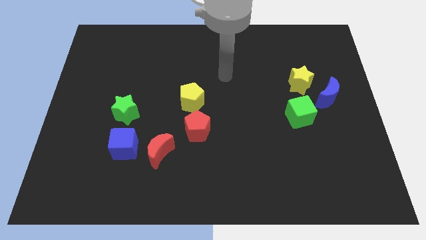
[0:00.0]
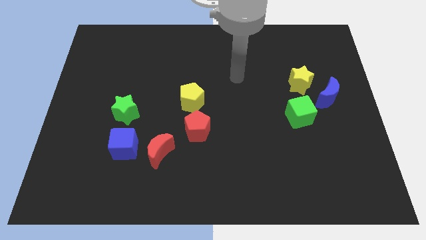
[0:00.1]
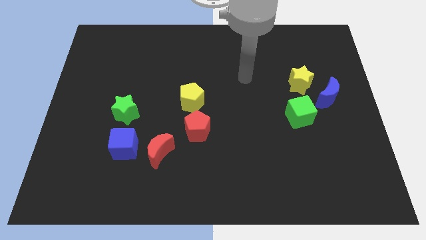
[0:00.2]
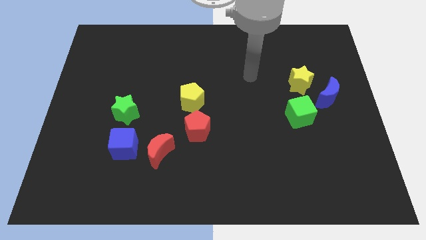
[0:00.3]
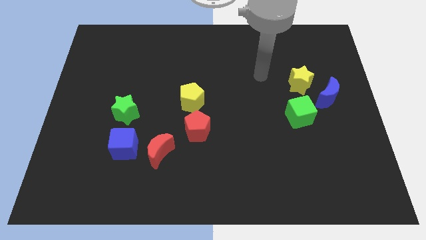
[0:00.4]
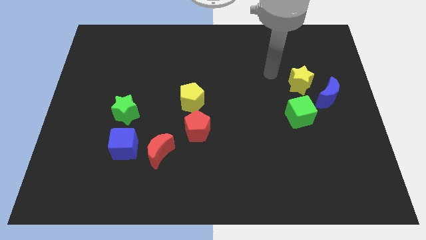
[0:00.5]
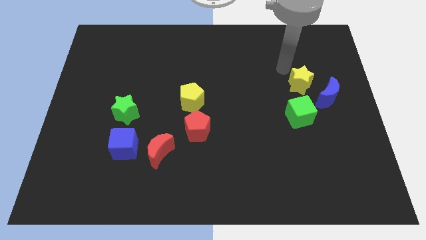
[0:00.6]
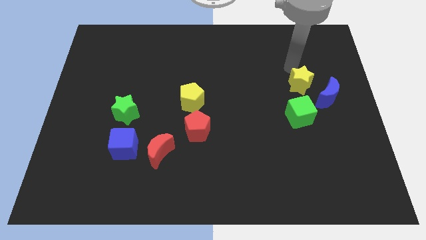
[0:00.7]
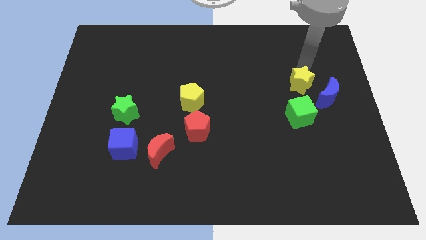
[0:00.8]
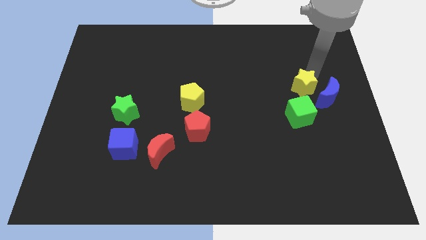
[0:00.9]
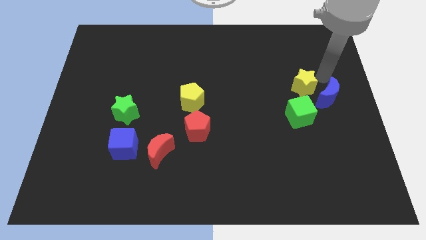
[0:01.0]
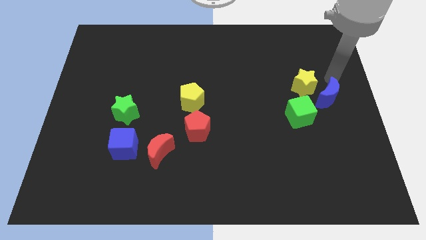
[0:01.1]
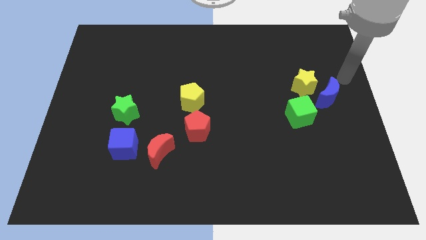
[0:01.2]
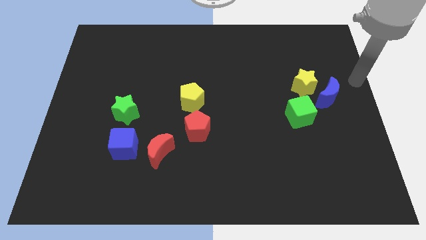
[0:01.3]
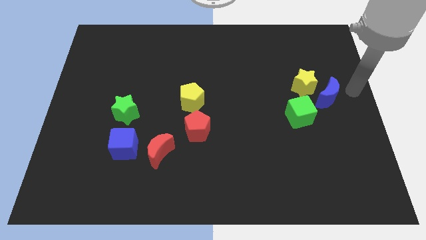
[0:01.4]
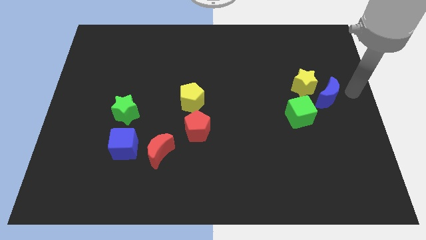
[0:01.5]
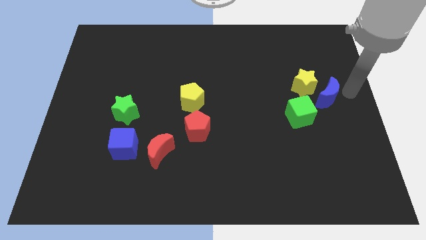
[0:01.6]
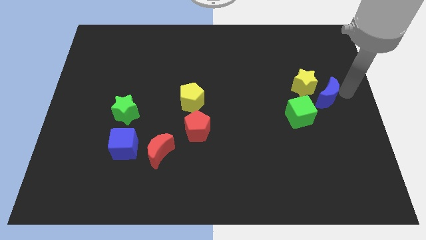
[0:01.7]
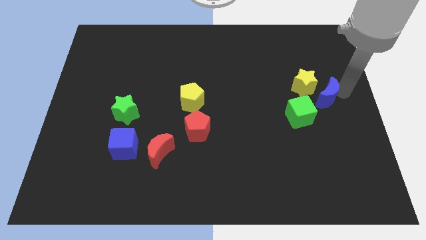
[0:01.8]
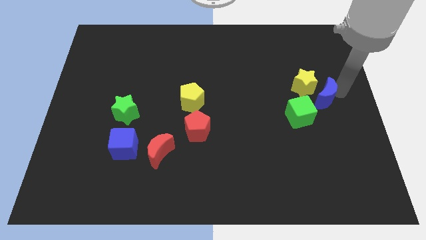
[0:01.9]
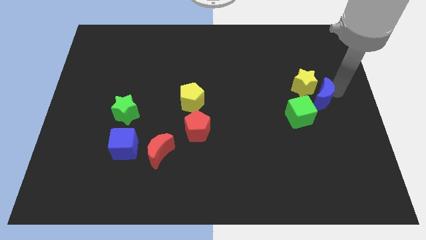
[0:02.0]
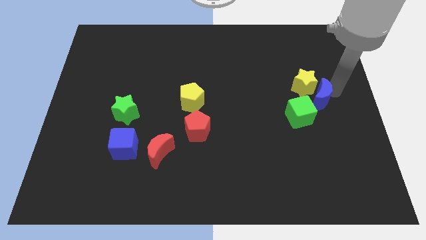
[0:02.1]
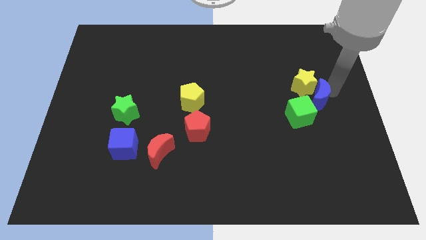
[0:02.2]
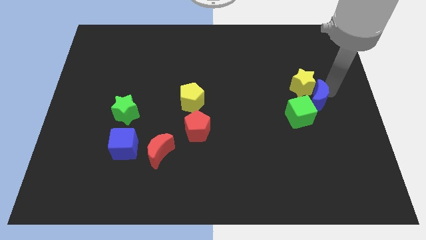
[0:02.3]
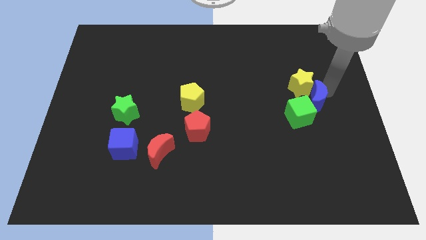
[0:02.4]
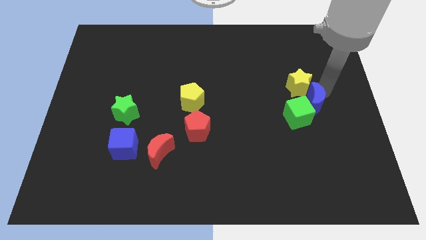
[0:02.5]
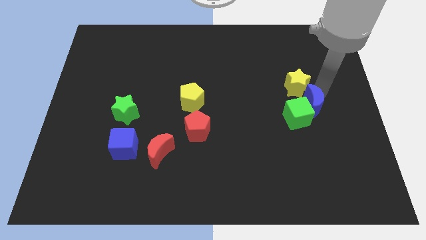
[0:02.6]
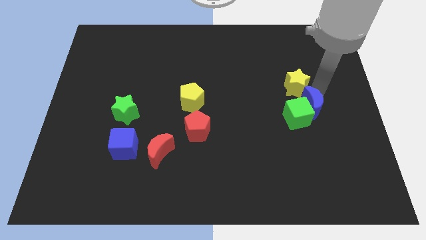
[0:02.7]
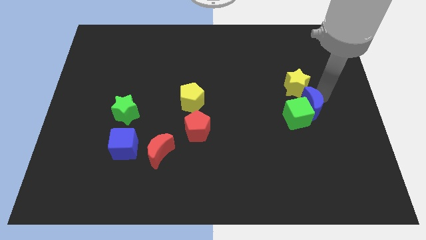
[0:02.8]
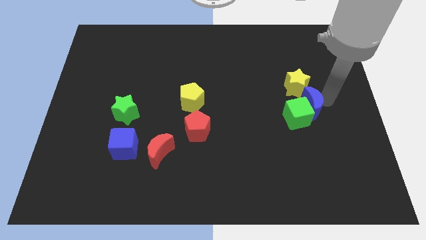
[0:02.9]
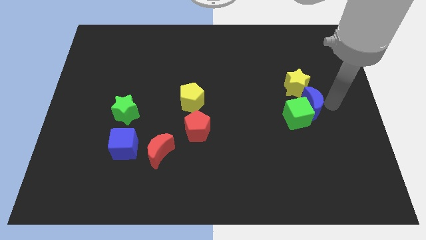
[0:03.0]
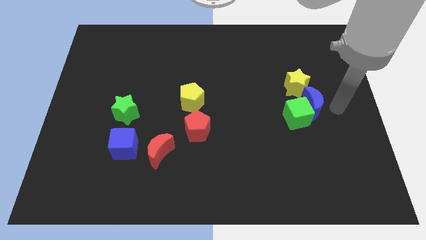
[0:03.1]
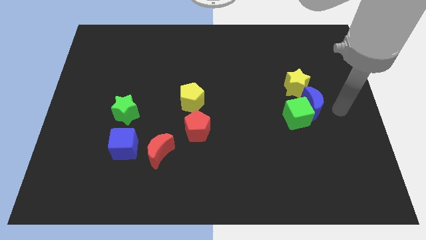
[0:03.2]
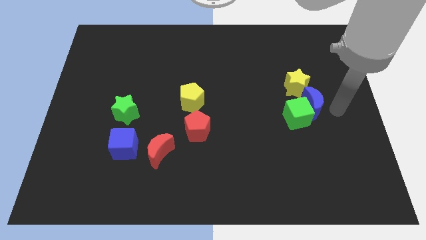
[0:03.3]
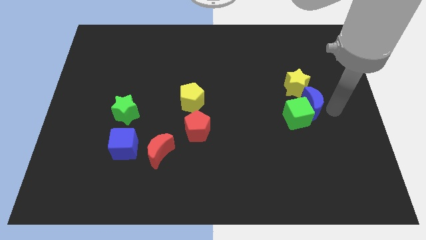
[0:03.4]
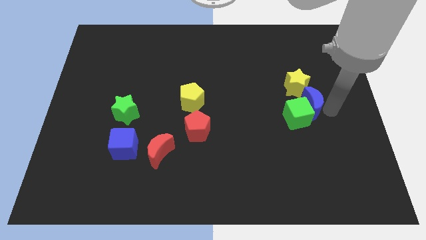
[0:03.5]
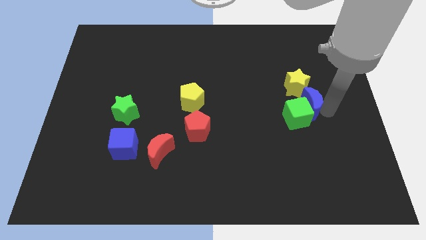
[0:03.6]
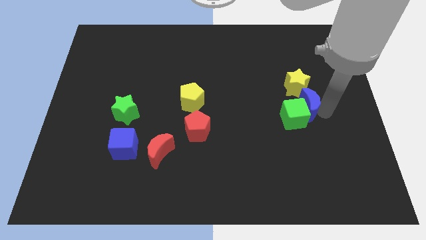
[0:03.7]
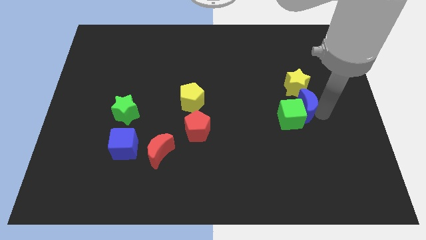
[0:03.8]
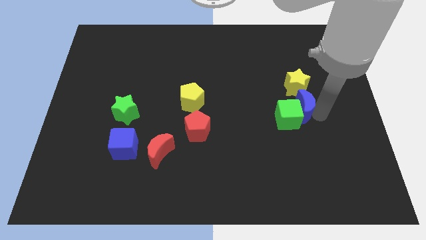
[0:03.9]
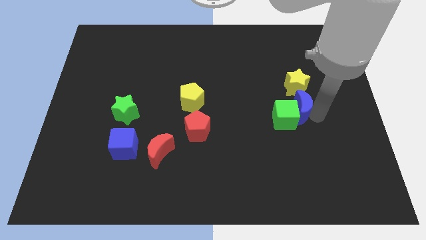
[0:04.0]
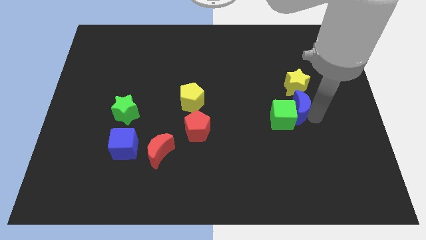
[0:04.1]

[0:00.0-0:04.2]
slide the blue moon slightly left

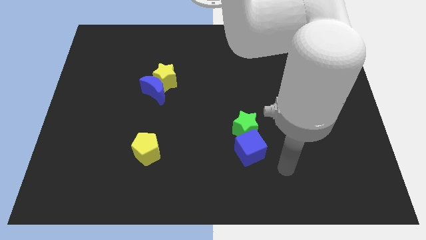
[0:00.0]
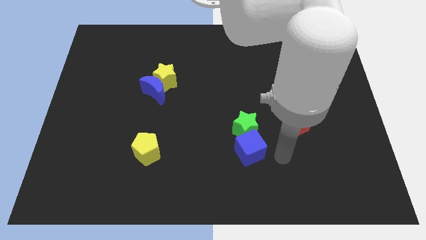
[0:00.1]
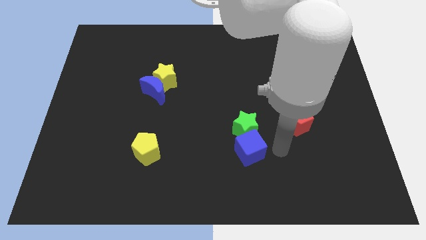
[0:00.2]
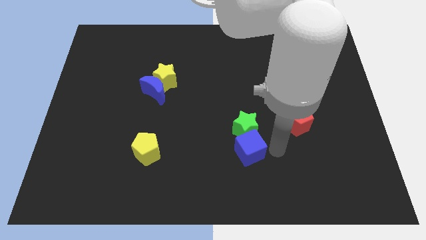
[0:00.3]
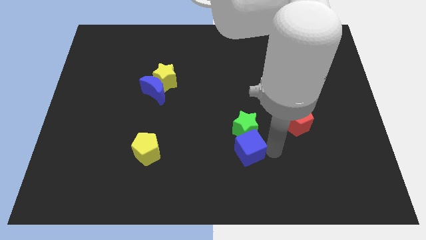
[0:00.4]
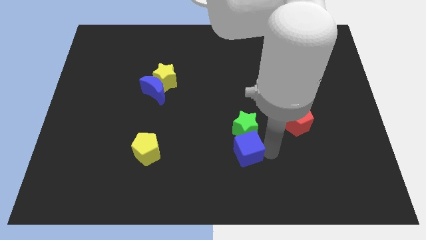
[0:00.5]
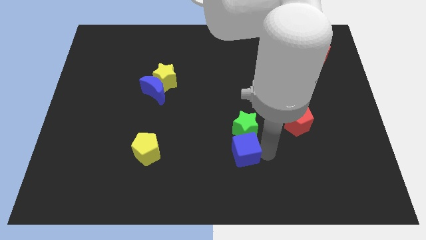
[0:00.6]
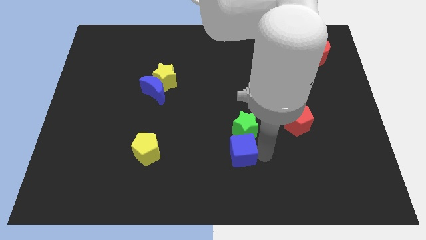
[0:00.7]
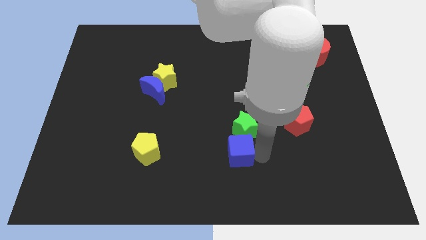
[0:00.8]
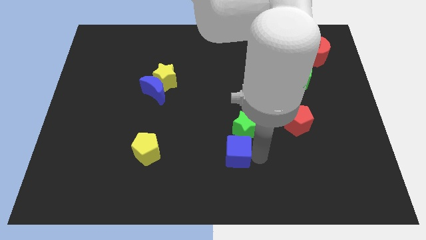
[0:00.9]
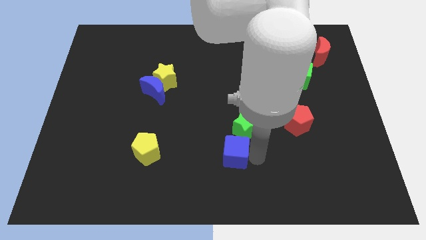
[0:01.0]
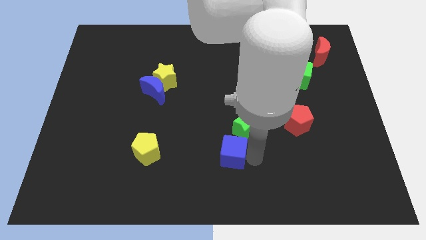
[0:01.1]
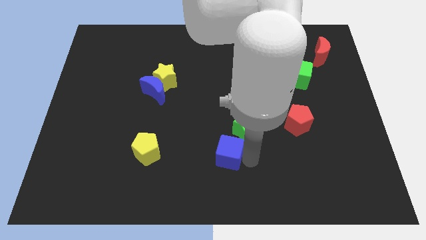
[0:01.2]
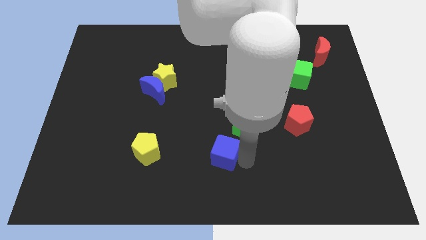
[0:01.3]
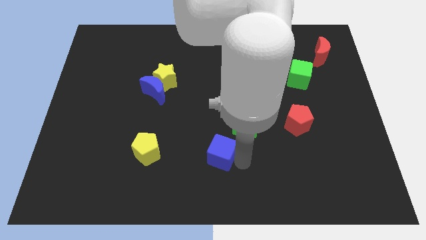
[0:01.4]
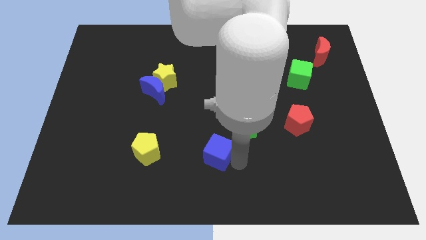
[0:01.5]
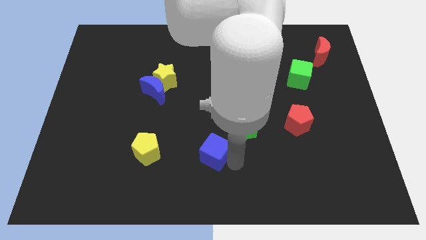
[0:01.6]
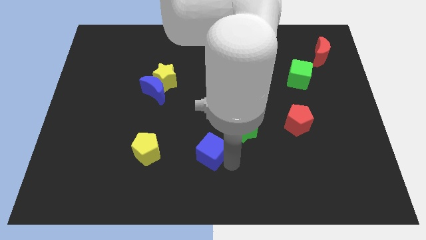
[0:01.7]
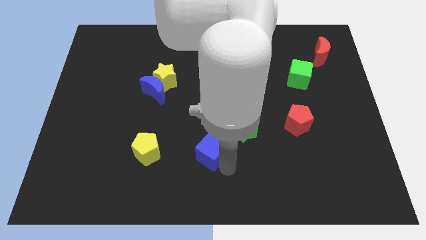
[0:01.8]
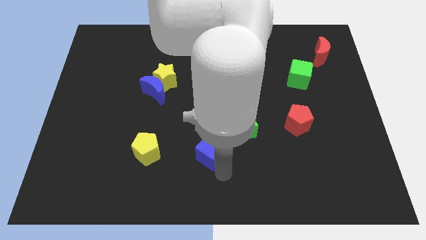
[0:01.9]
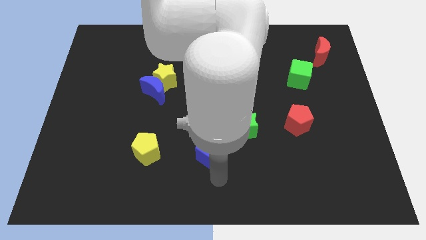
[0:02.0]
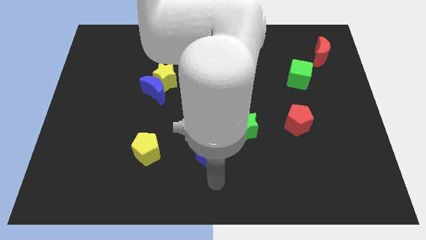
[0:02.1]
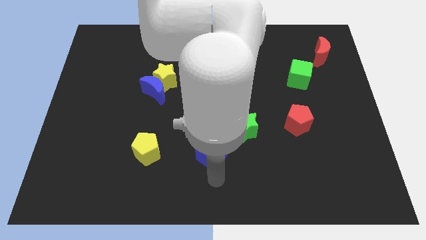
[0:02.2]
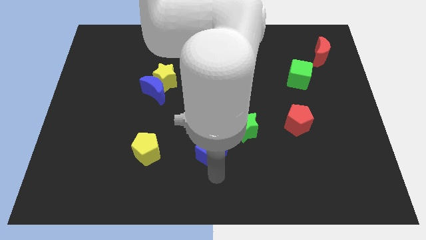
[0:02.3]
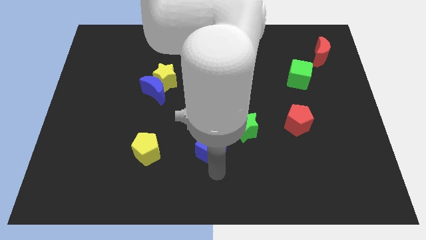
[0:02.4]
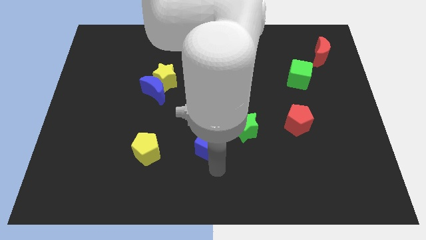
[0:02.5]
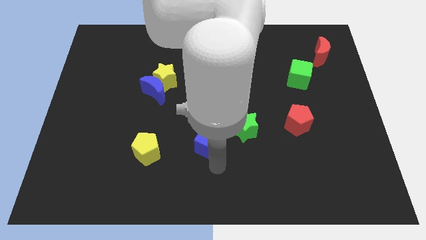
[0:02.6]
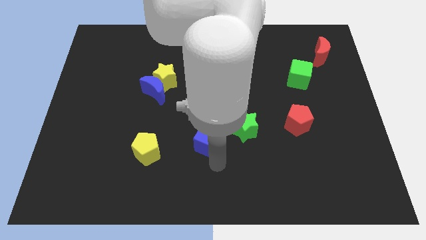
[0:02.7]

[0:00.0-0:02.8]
move the blue cube slightly up and then left

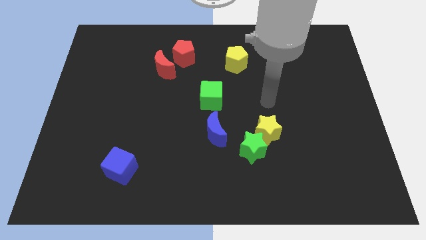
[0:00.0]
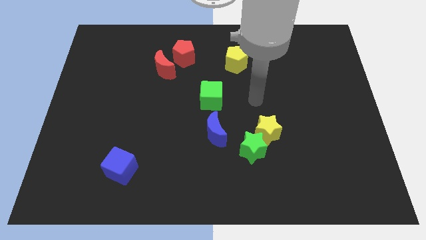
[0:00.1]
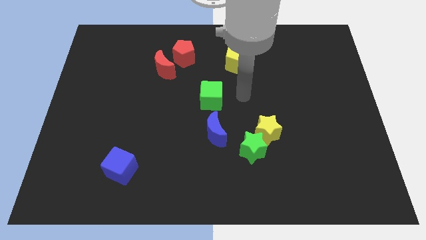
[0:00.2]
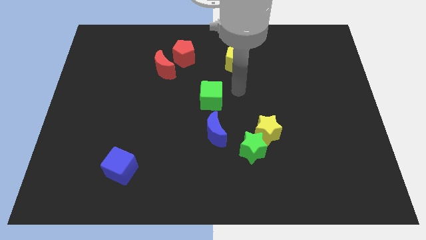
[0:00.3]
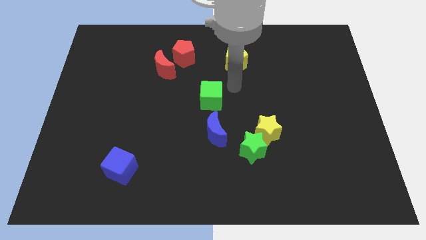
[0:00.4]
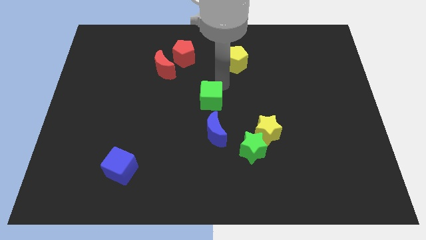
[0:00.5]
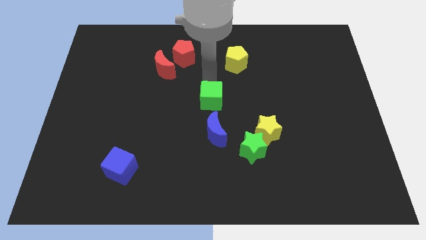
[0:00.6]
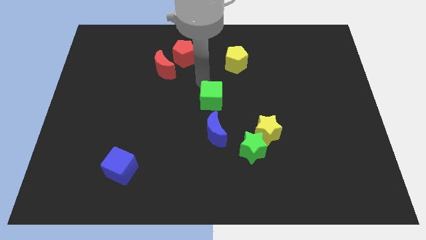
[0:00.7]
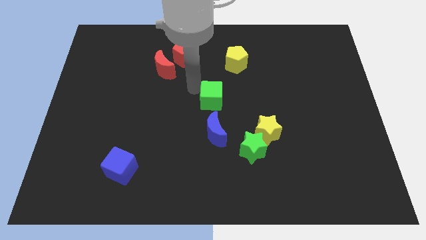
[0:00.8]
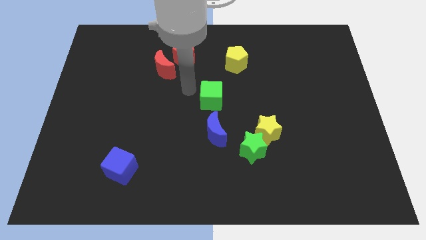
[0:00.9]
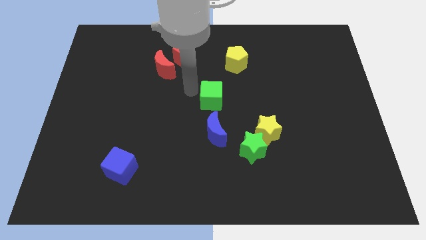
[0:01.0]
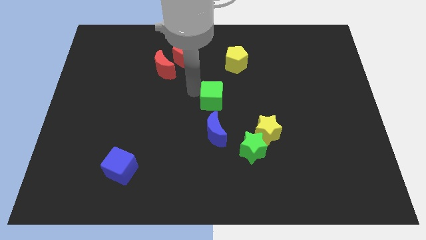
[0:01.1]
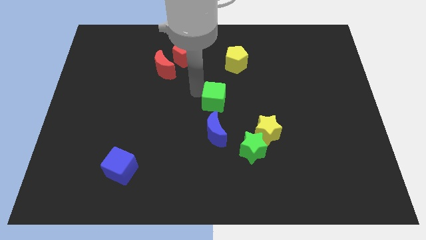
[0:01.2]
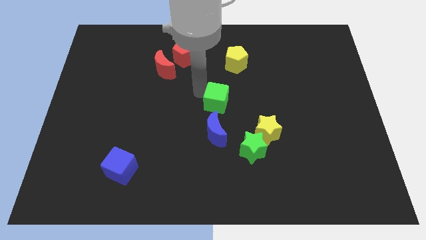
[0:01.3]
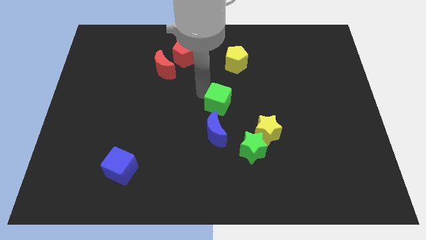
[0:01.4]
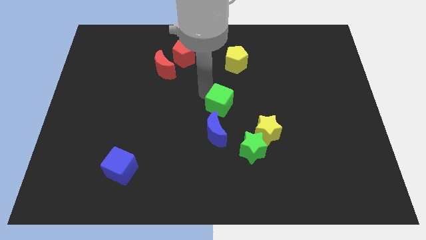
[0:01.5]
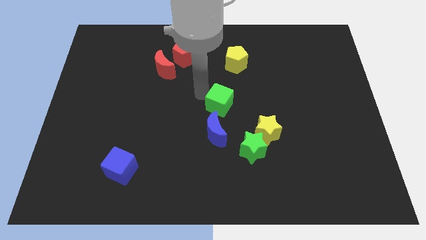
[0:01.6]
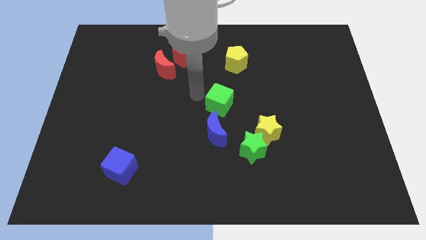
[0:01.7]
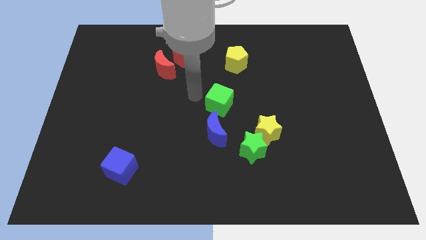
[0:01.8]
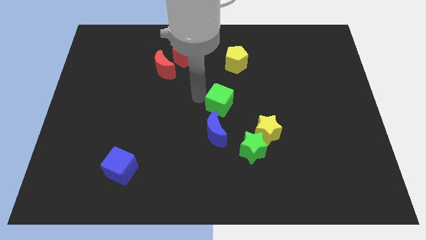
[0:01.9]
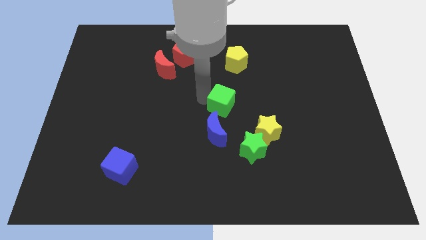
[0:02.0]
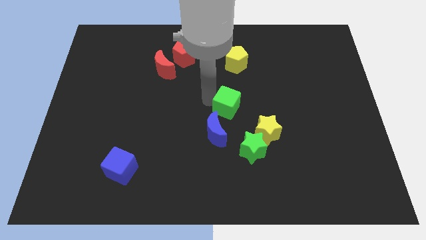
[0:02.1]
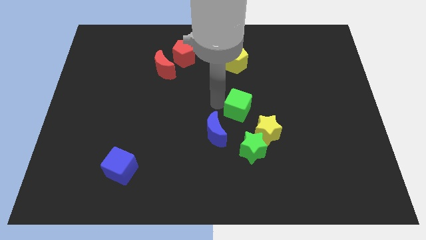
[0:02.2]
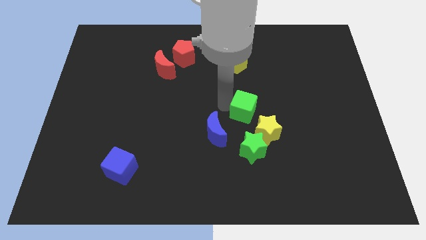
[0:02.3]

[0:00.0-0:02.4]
move the green cube down and right diagonally a little
